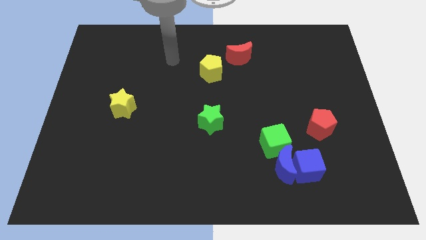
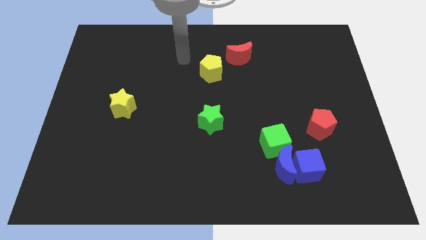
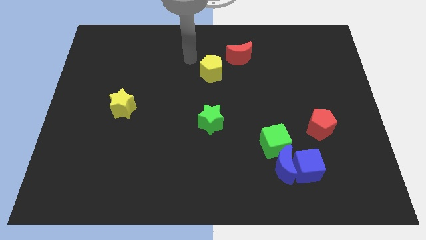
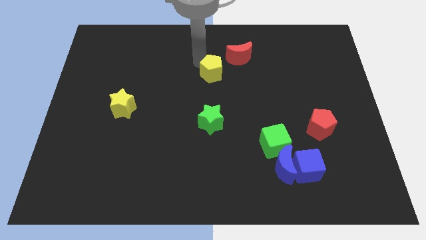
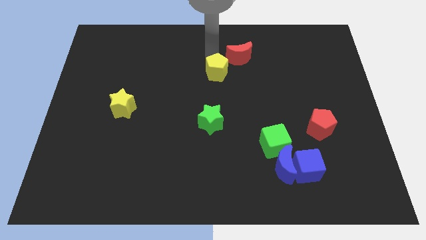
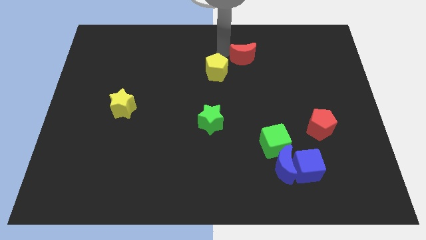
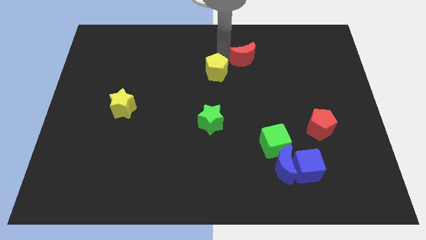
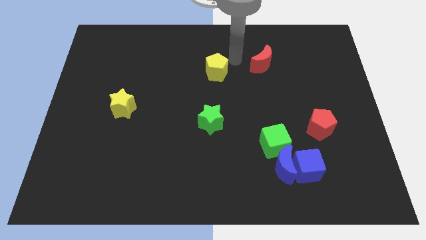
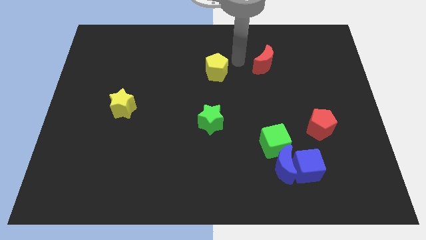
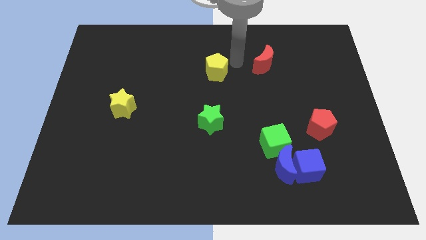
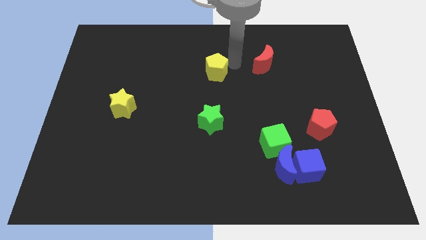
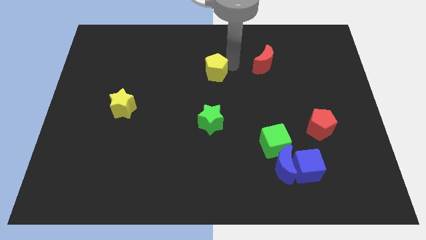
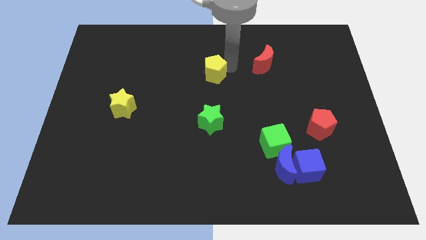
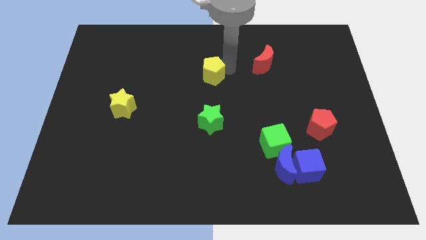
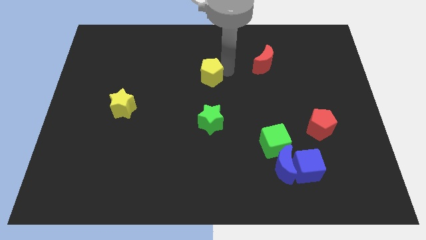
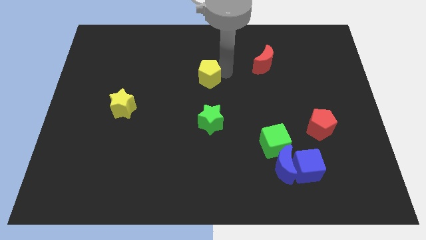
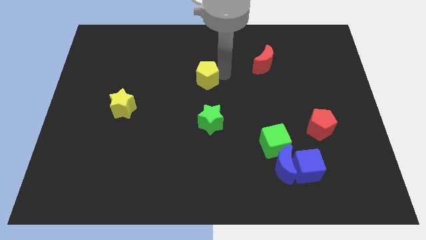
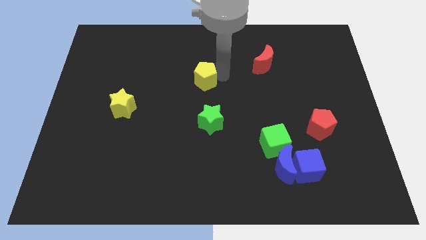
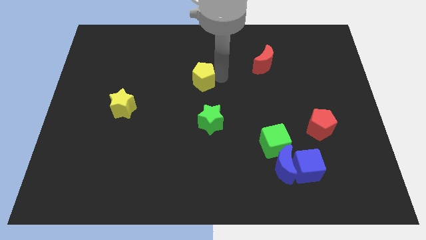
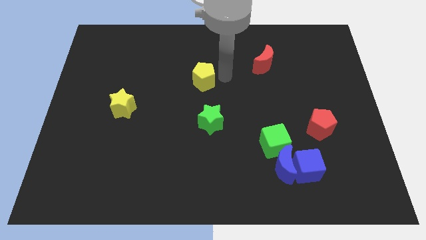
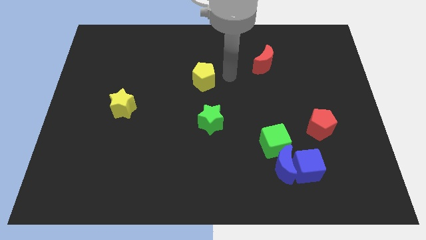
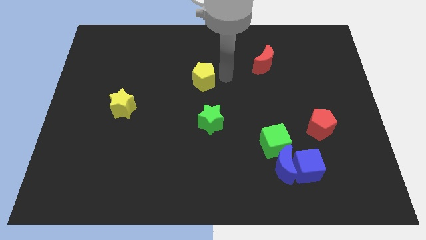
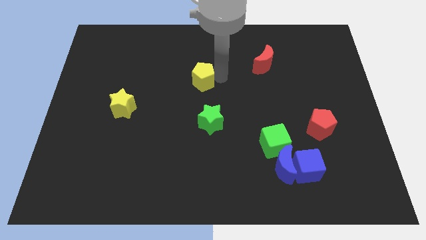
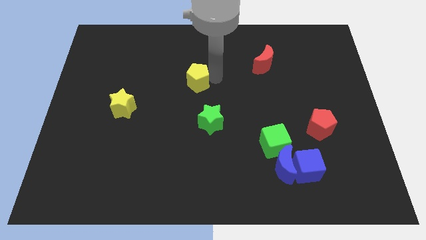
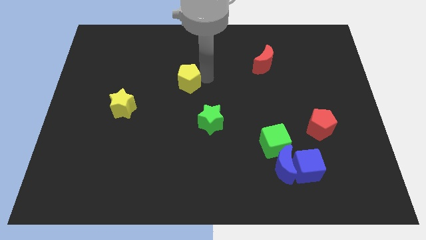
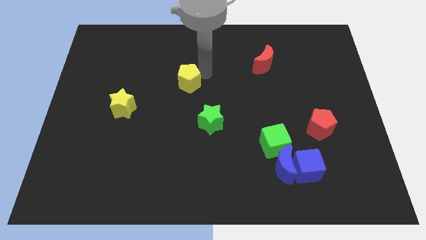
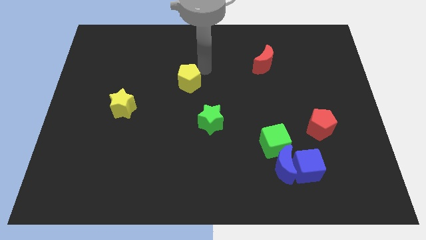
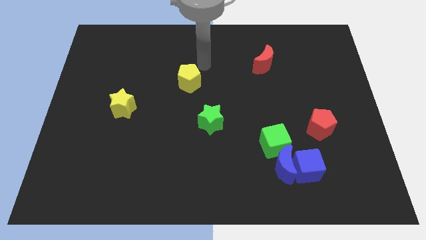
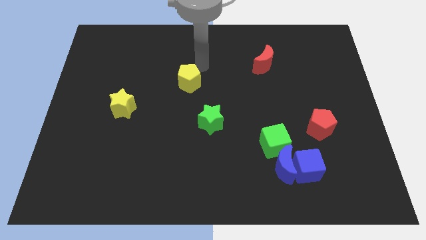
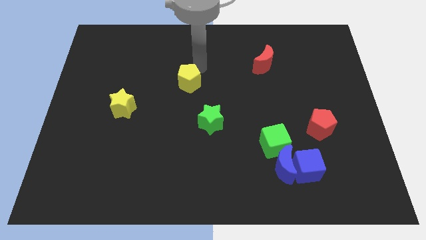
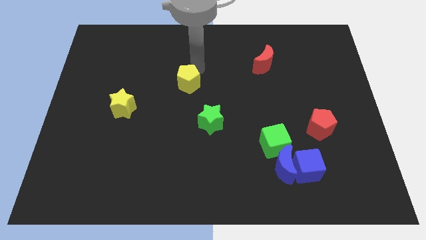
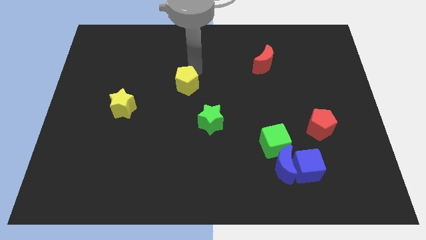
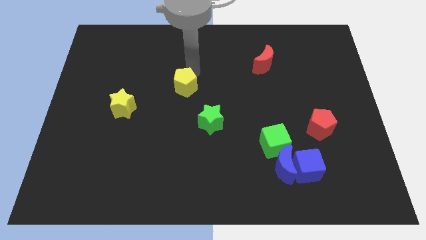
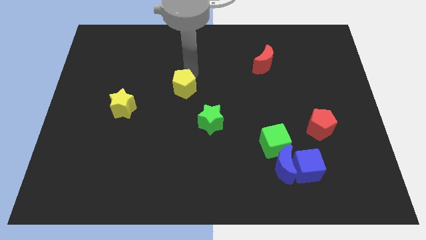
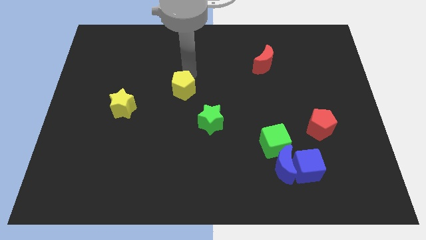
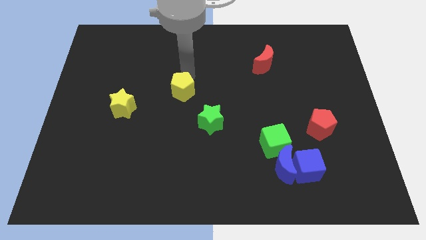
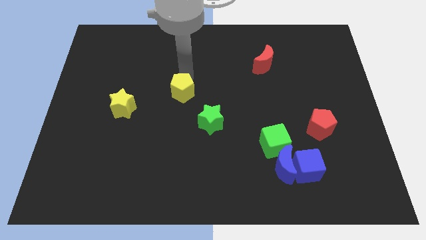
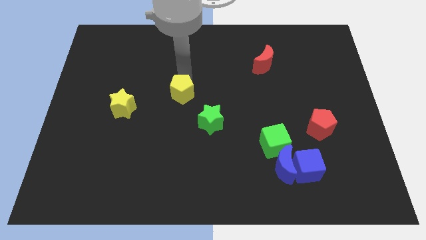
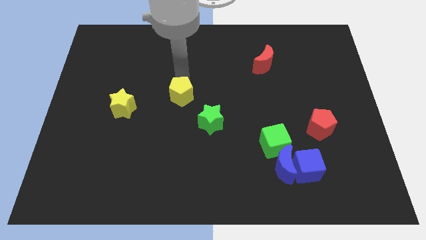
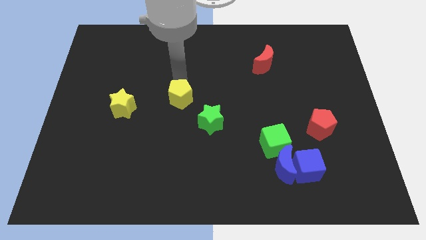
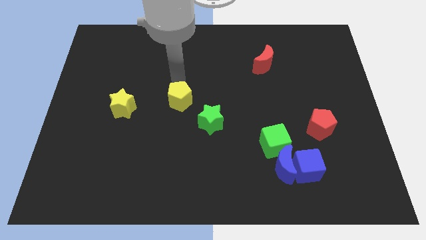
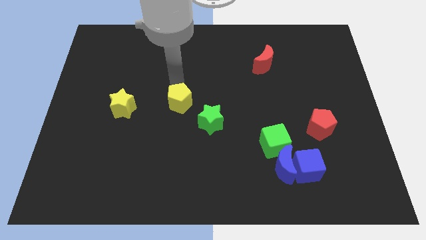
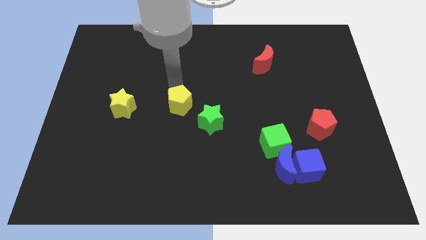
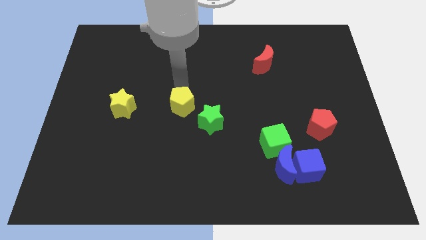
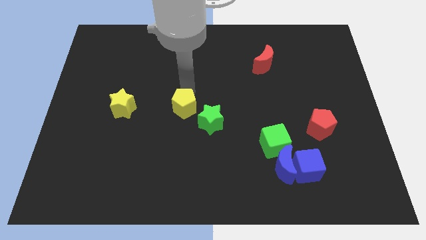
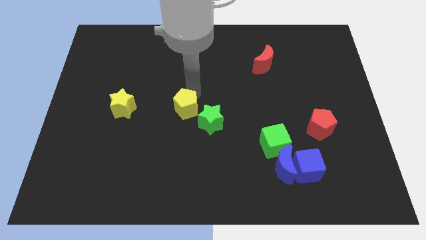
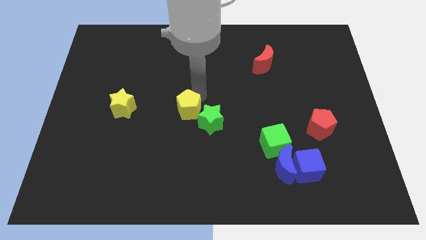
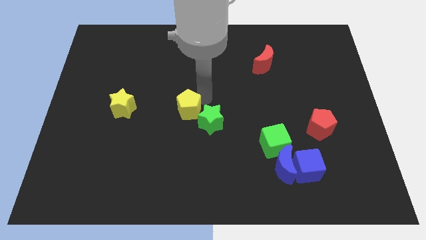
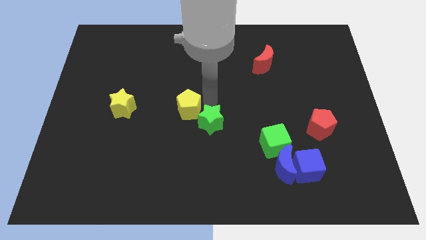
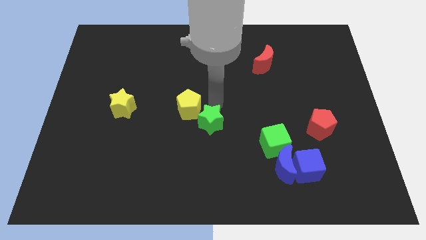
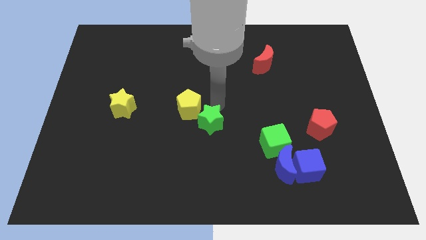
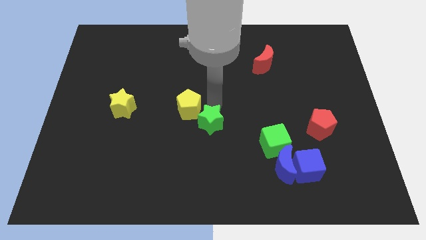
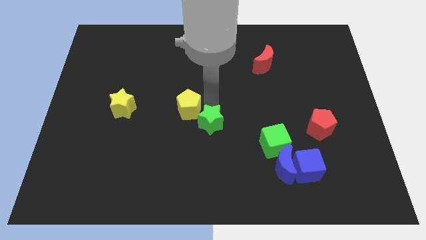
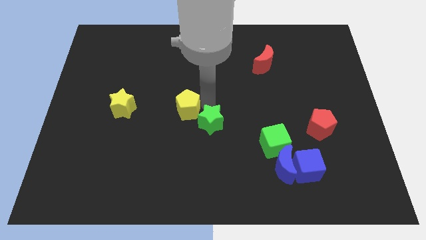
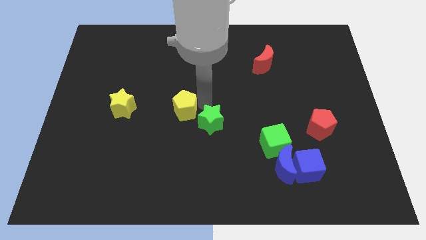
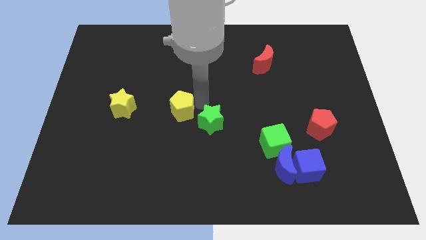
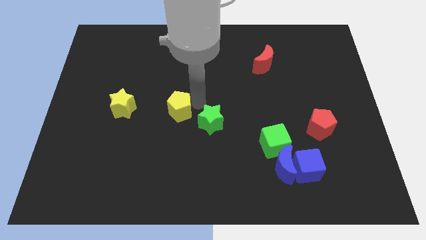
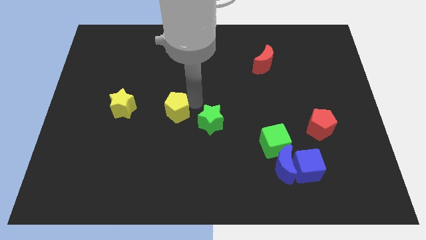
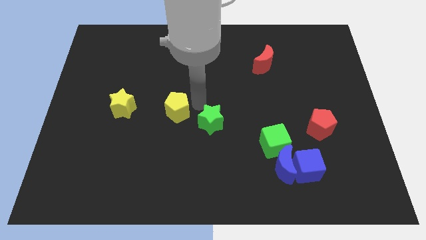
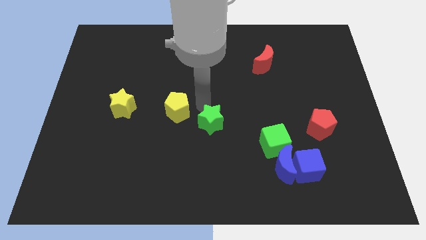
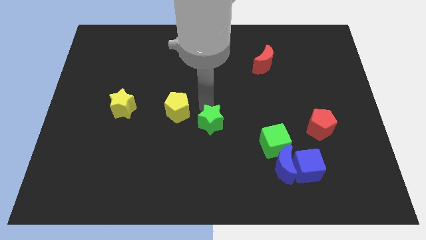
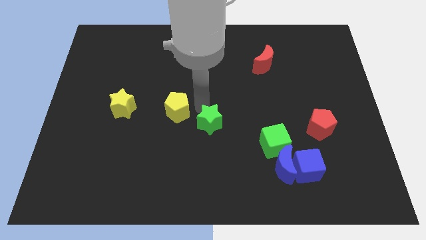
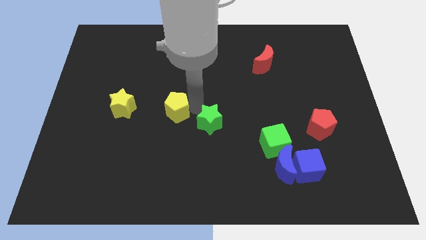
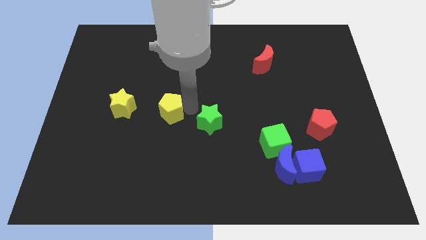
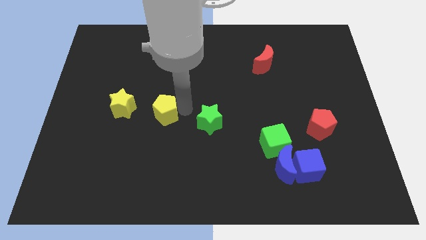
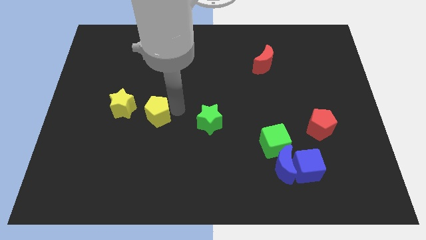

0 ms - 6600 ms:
slide the yellow pentagon diagonally down and to the right of the yellow star

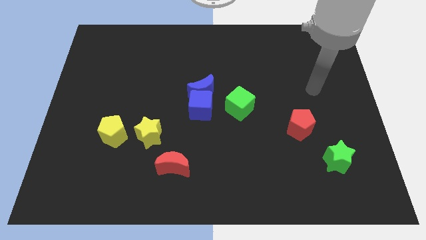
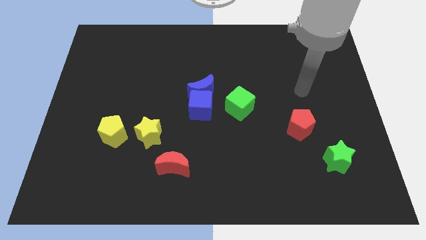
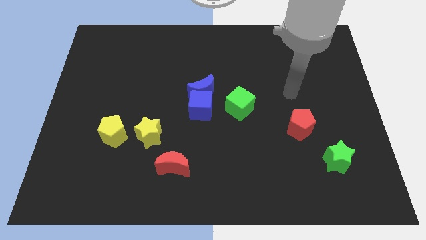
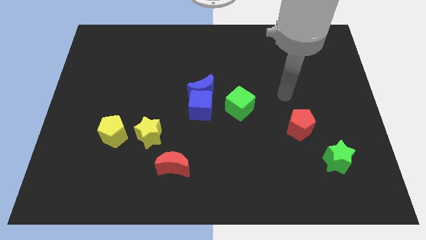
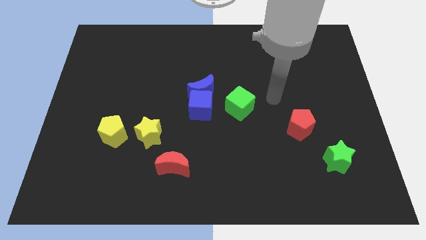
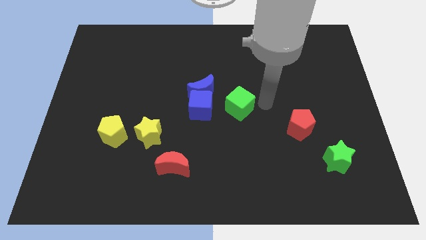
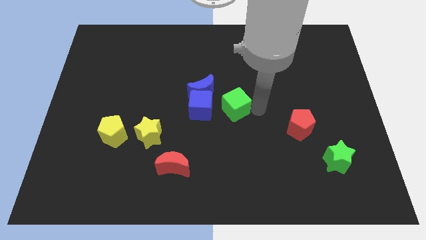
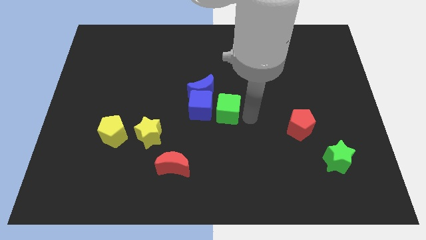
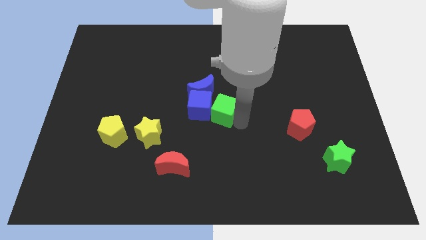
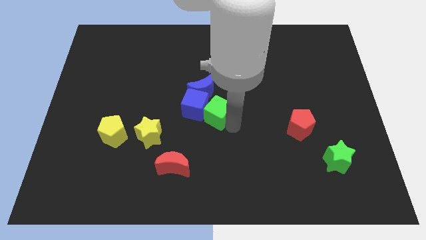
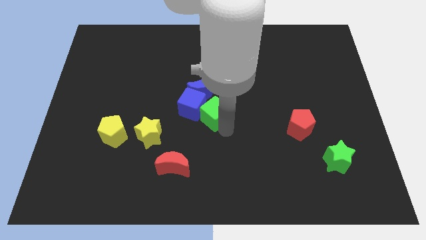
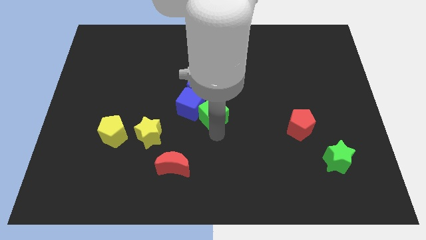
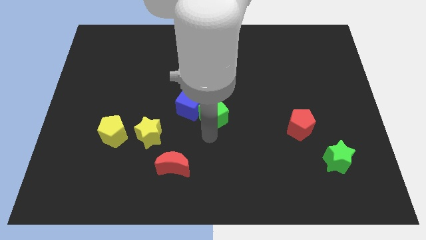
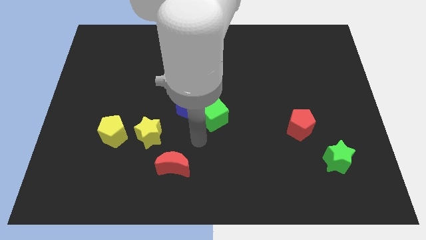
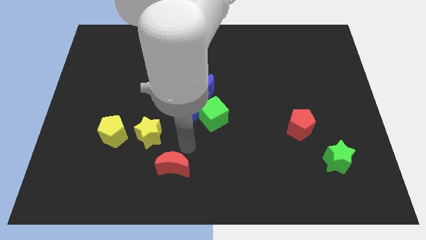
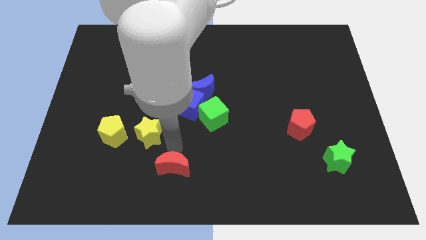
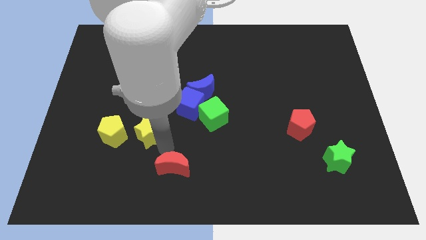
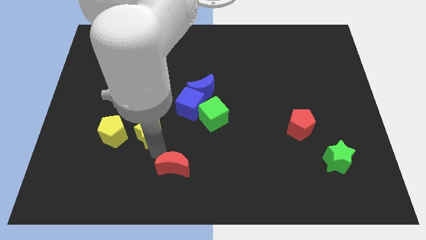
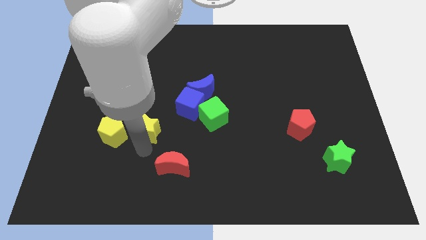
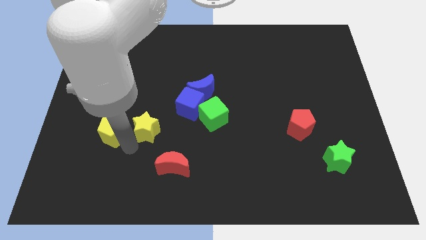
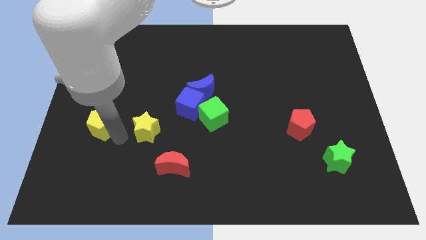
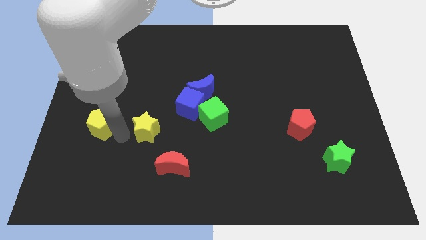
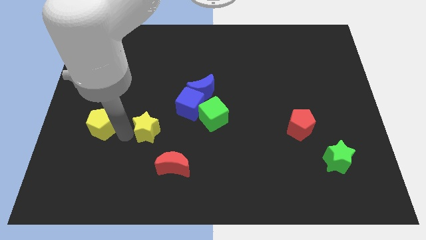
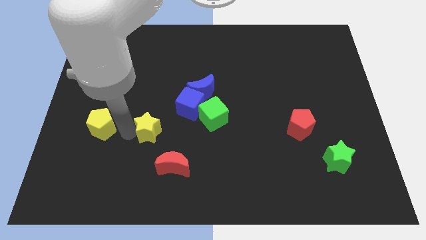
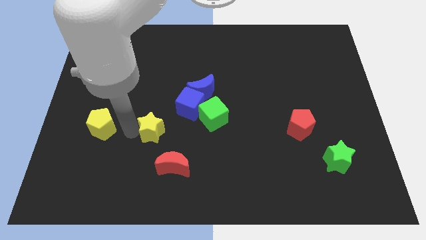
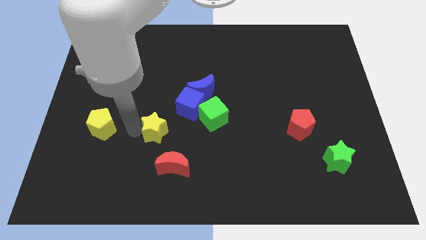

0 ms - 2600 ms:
move the yellow star to the top side of the red moon
